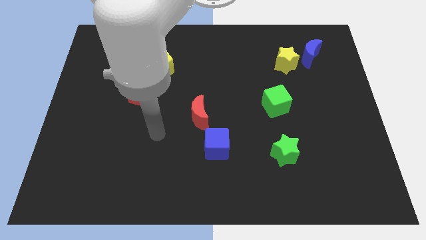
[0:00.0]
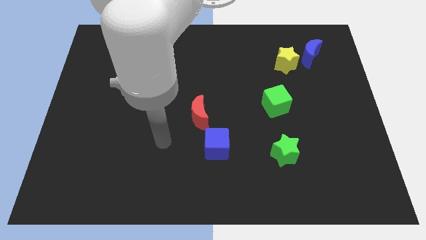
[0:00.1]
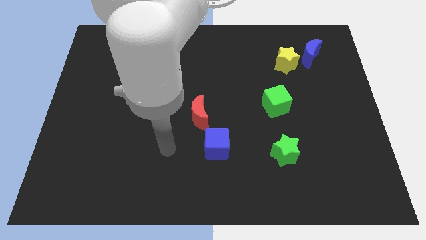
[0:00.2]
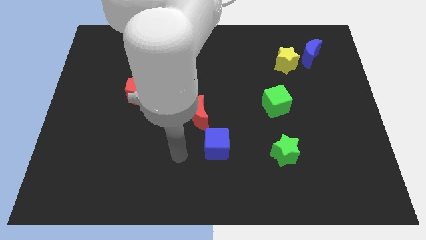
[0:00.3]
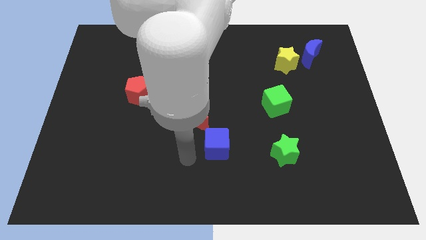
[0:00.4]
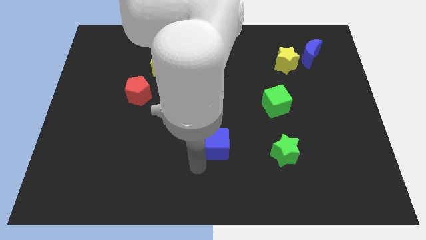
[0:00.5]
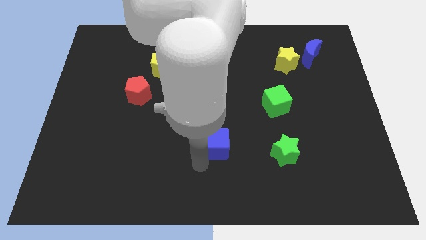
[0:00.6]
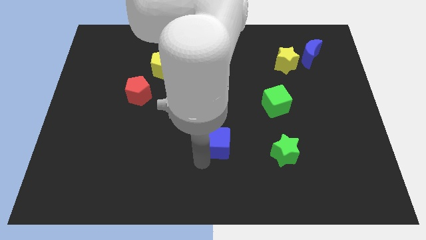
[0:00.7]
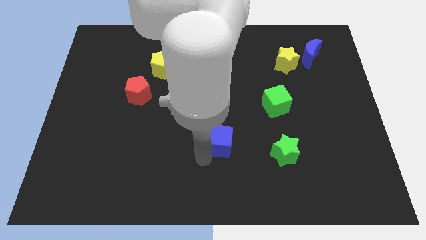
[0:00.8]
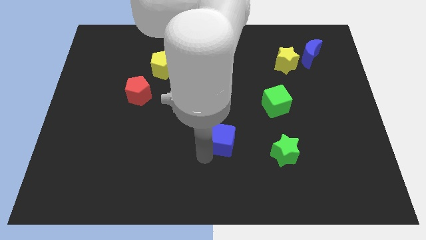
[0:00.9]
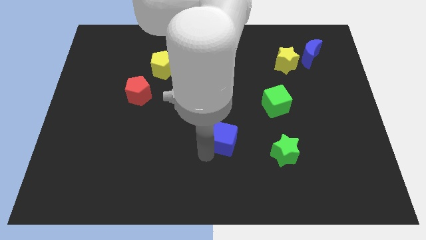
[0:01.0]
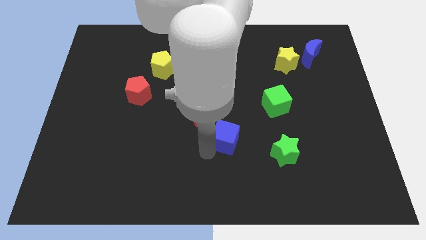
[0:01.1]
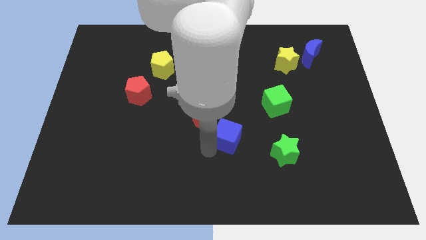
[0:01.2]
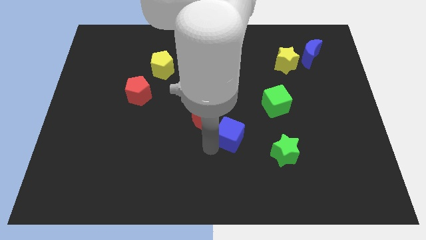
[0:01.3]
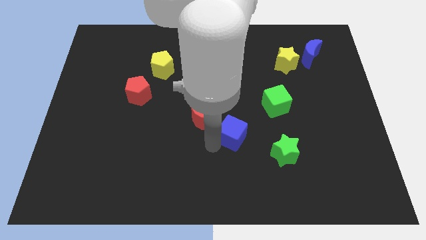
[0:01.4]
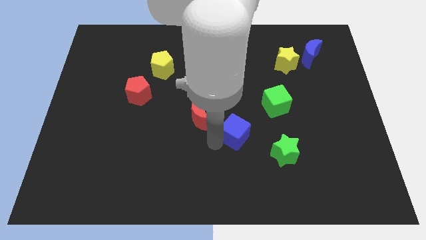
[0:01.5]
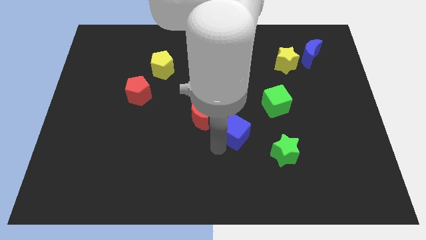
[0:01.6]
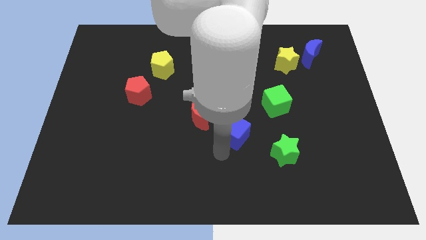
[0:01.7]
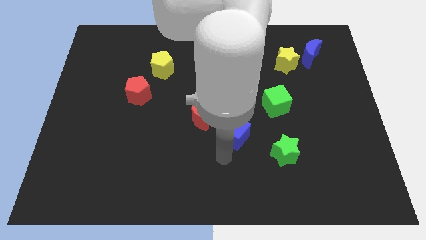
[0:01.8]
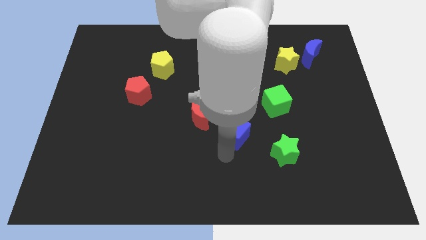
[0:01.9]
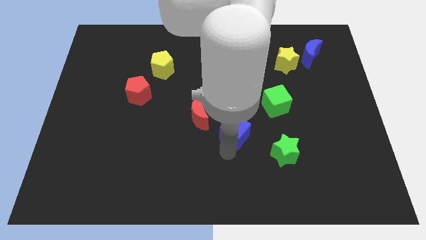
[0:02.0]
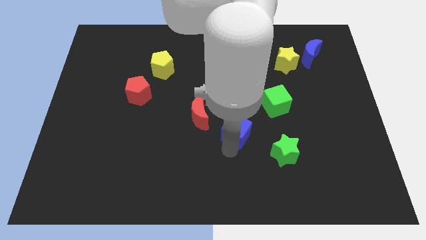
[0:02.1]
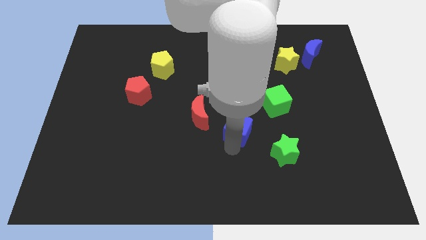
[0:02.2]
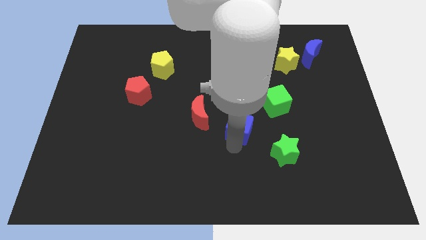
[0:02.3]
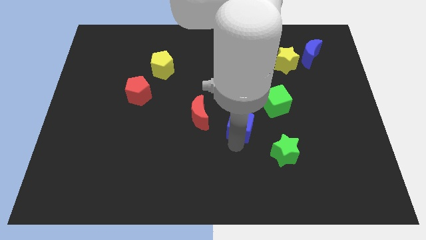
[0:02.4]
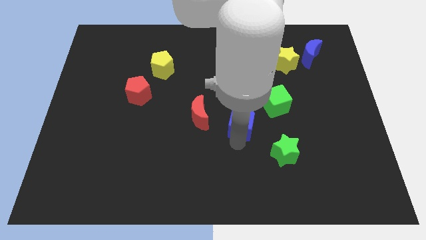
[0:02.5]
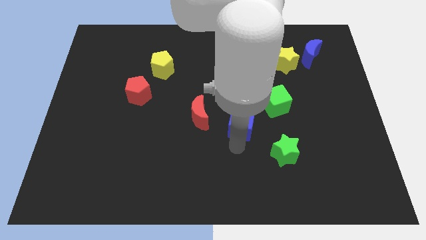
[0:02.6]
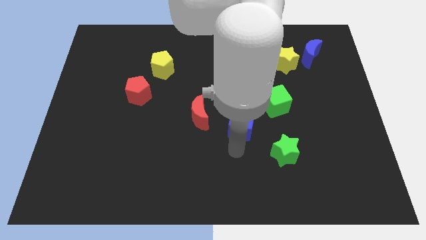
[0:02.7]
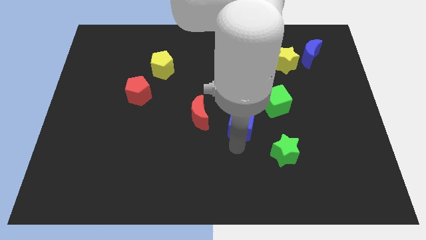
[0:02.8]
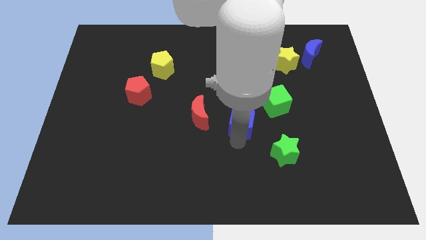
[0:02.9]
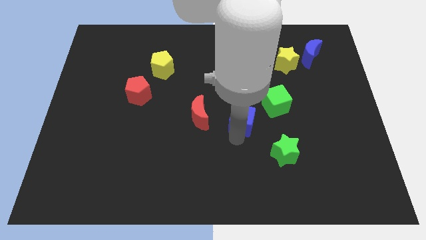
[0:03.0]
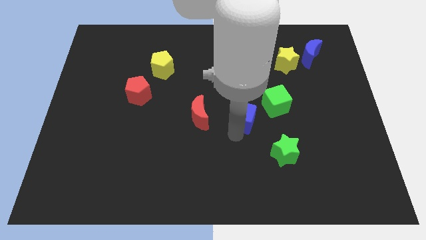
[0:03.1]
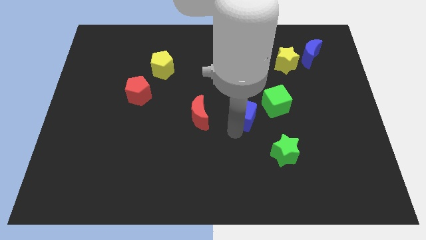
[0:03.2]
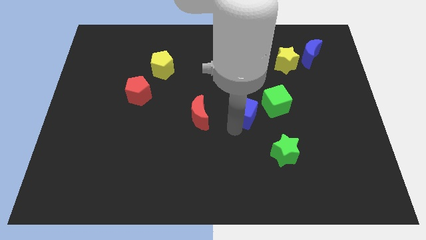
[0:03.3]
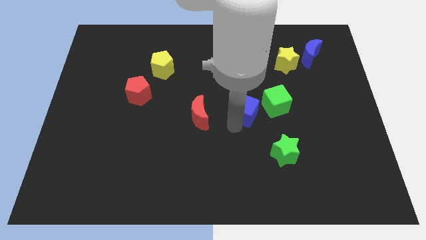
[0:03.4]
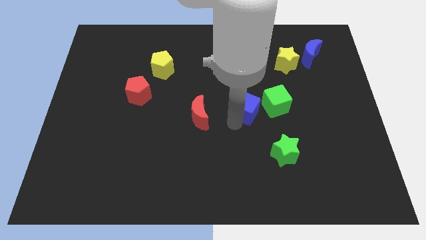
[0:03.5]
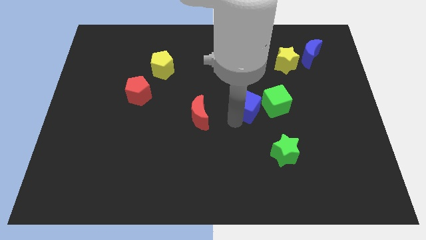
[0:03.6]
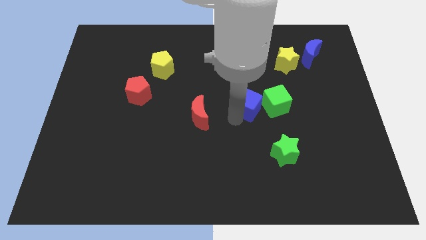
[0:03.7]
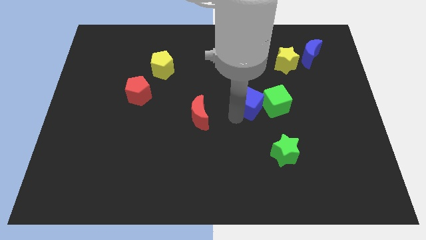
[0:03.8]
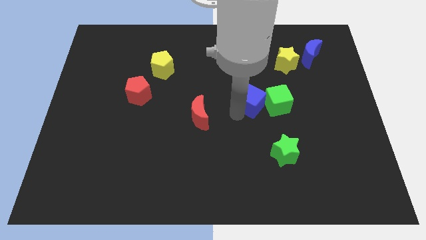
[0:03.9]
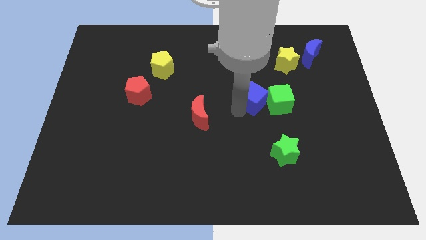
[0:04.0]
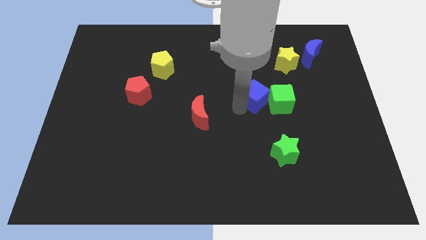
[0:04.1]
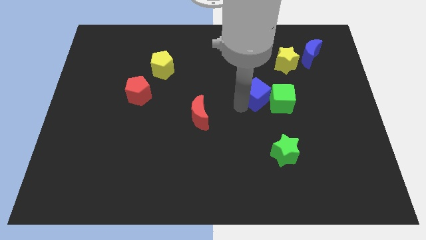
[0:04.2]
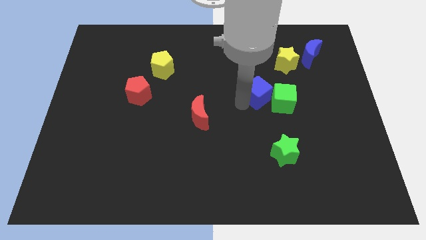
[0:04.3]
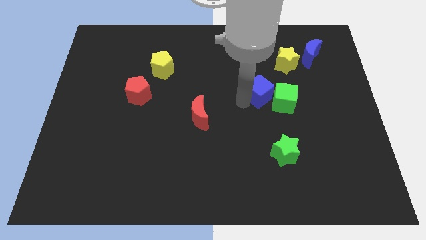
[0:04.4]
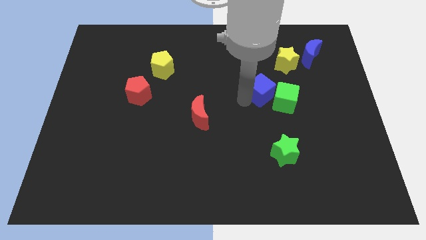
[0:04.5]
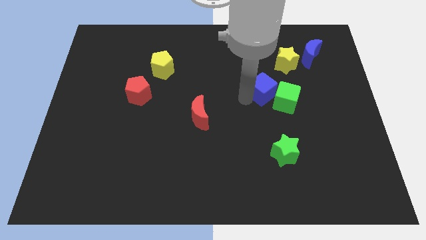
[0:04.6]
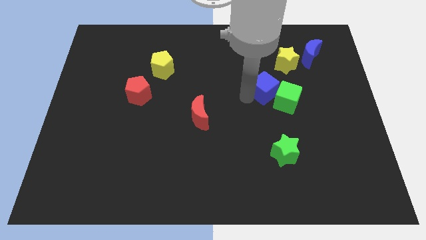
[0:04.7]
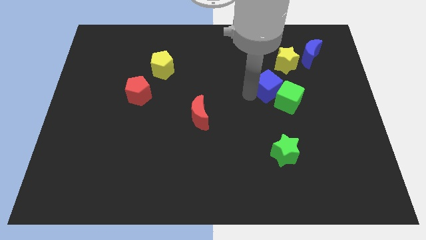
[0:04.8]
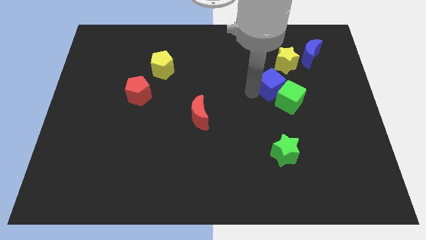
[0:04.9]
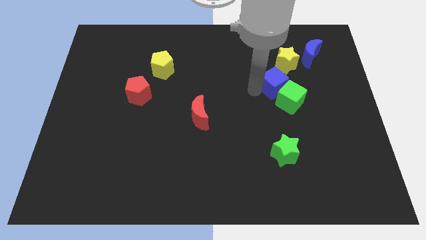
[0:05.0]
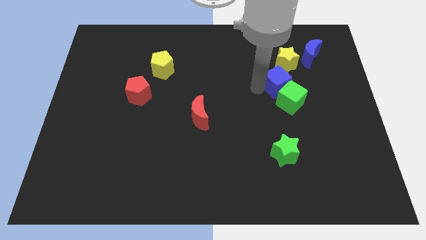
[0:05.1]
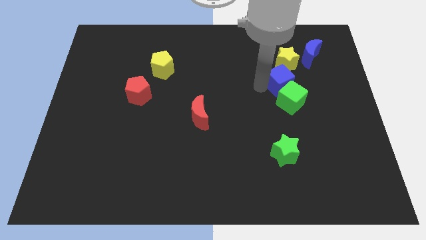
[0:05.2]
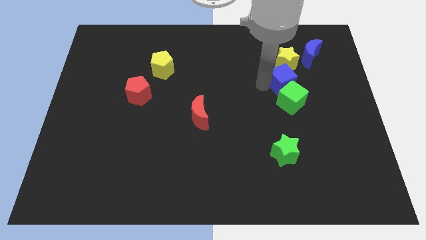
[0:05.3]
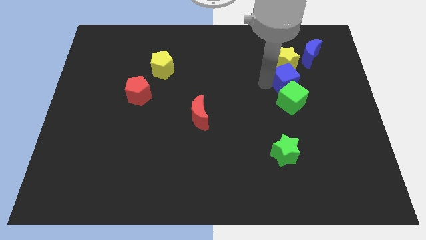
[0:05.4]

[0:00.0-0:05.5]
push the blue cube to the top right of the green cube

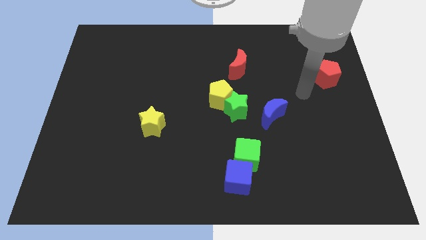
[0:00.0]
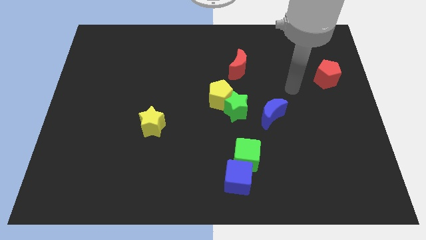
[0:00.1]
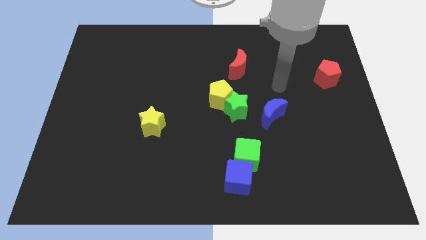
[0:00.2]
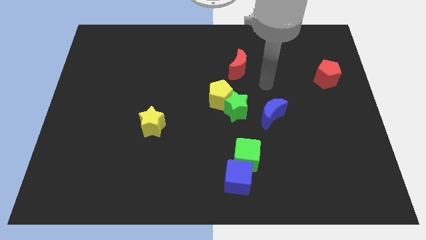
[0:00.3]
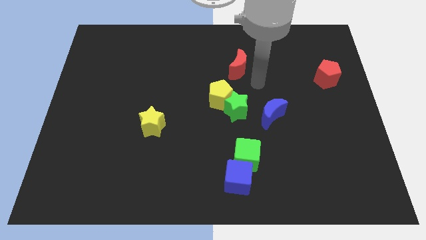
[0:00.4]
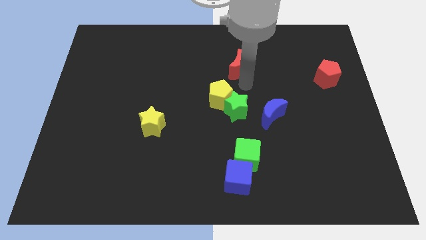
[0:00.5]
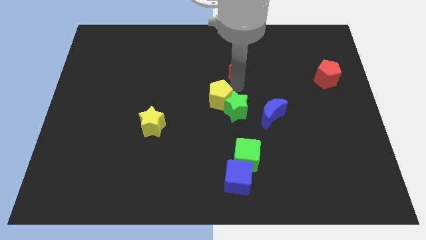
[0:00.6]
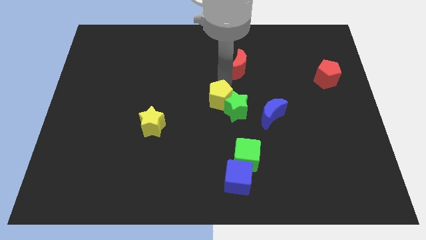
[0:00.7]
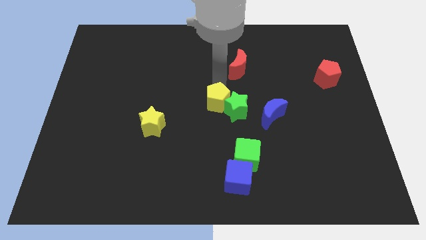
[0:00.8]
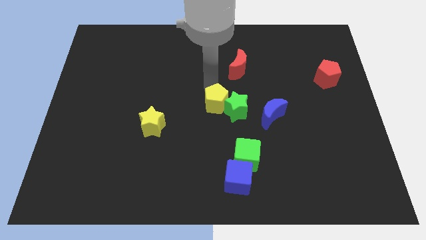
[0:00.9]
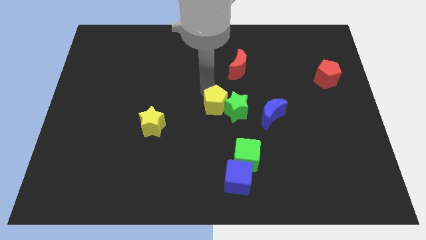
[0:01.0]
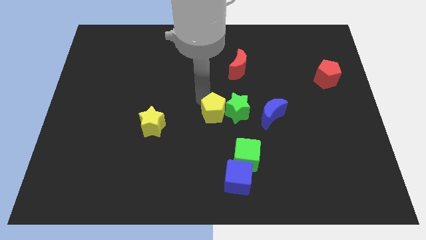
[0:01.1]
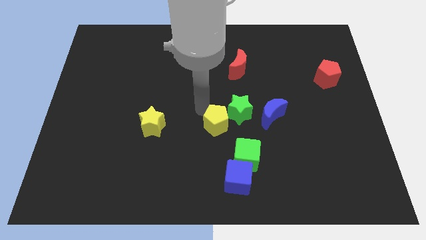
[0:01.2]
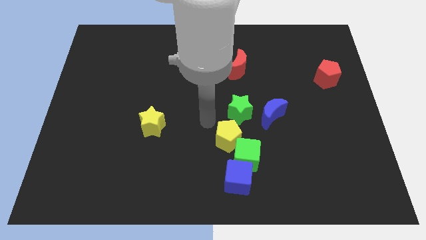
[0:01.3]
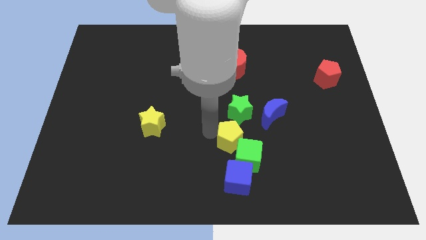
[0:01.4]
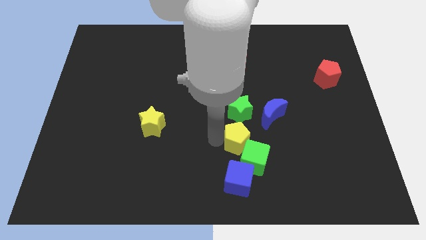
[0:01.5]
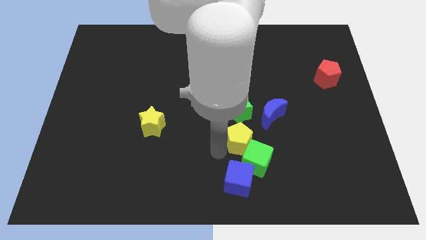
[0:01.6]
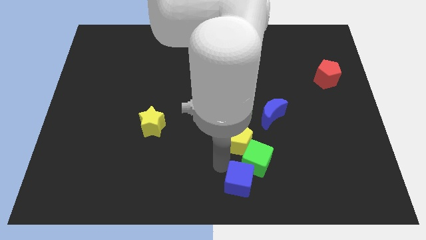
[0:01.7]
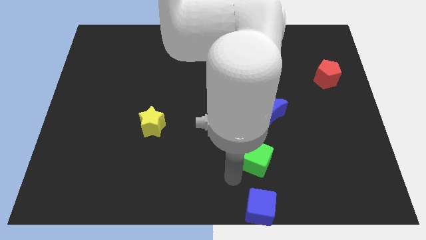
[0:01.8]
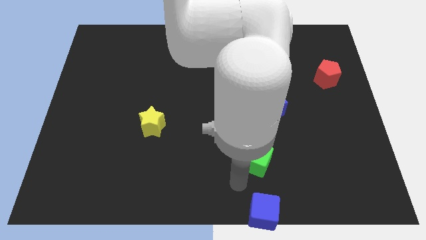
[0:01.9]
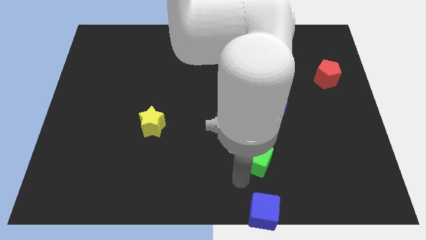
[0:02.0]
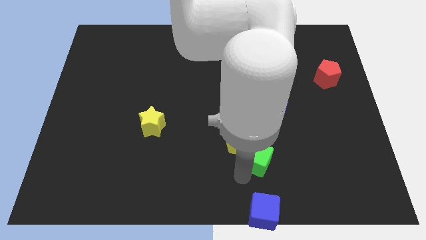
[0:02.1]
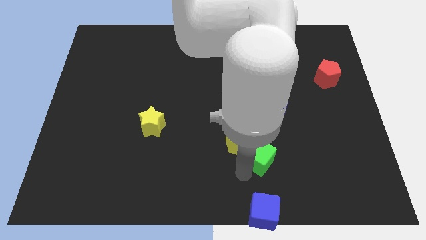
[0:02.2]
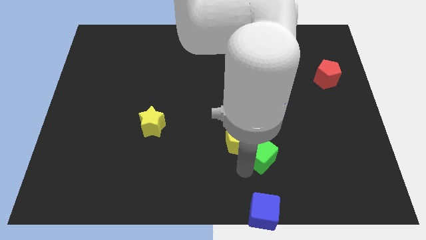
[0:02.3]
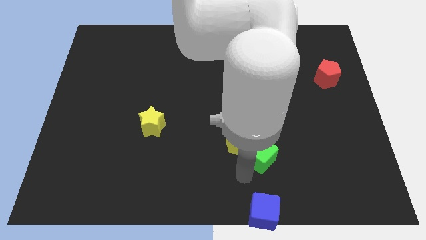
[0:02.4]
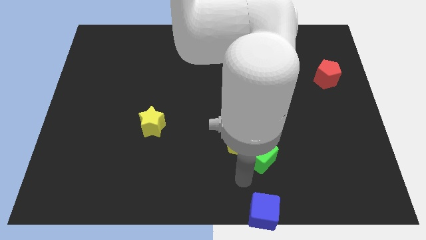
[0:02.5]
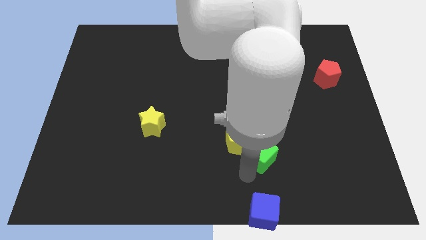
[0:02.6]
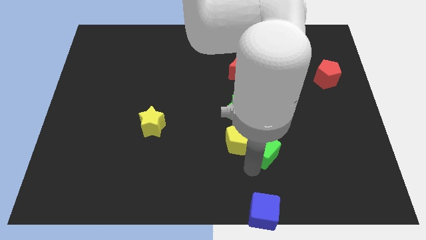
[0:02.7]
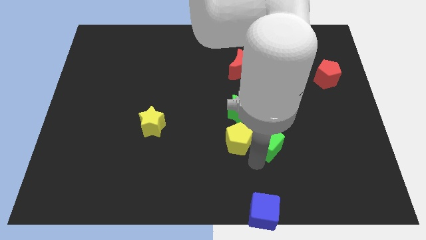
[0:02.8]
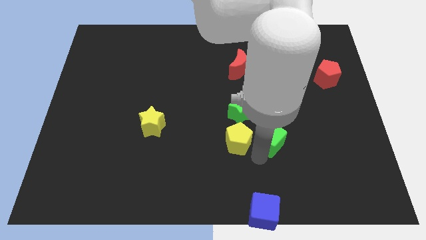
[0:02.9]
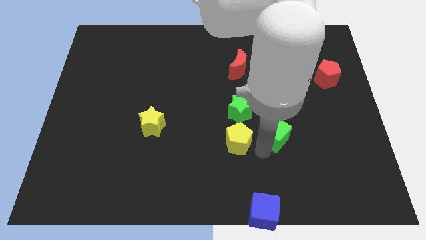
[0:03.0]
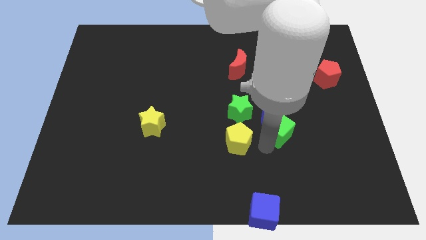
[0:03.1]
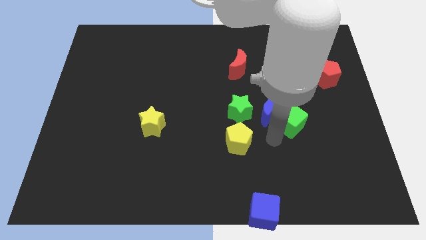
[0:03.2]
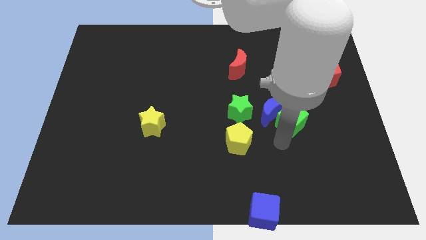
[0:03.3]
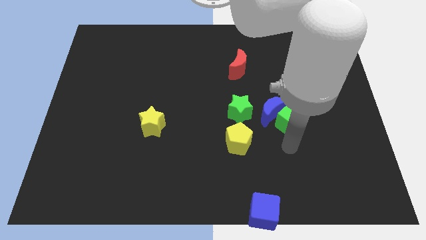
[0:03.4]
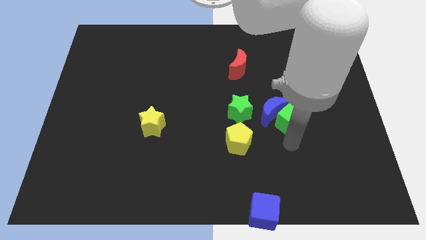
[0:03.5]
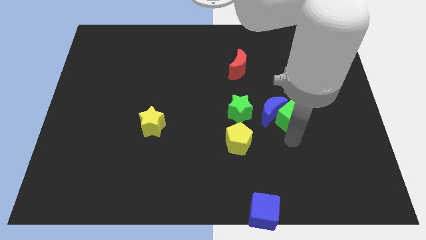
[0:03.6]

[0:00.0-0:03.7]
move the green cube to the top right side of the blue moon
